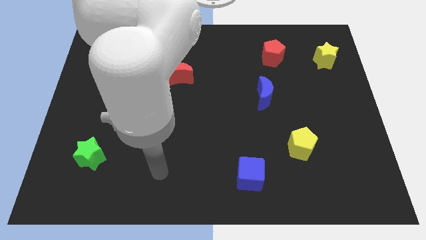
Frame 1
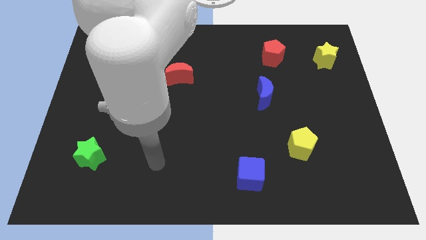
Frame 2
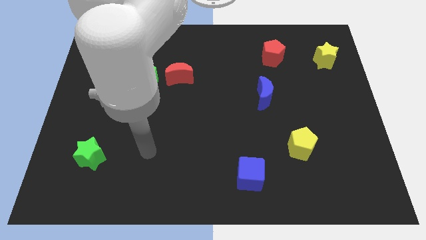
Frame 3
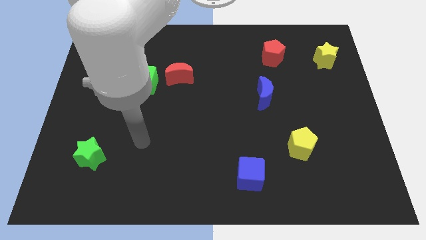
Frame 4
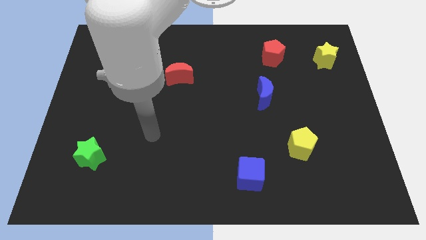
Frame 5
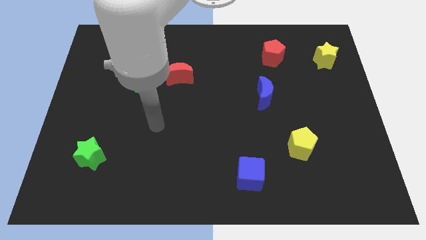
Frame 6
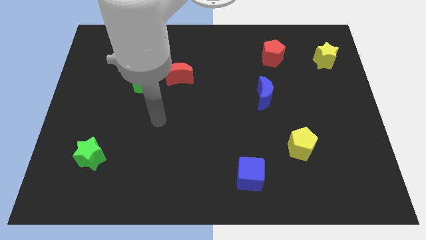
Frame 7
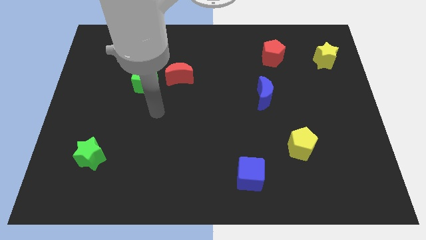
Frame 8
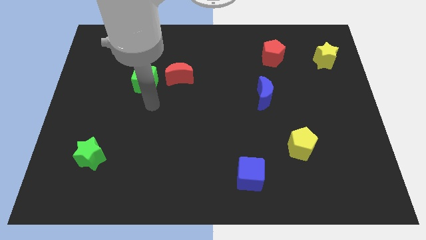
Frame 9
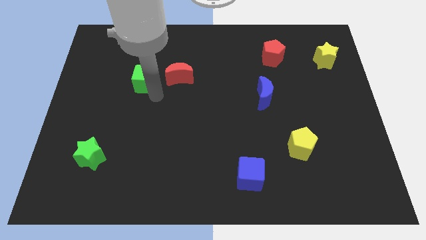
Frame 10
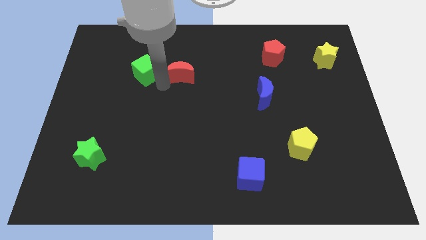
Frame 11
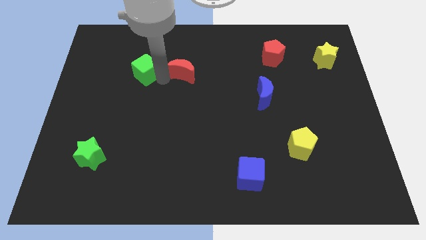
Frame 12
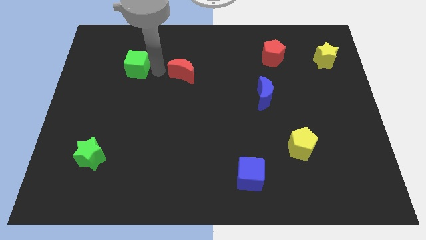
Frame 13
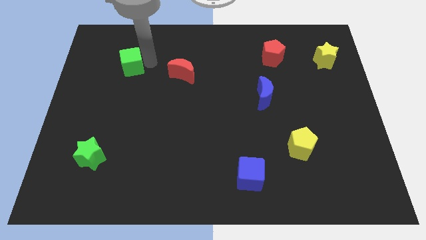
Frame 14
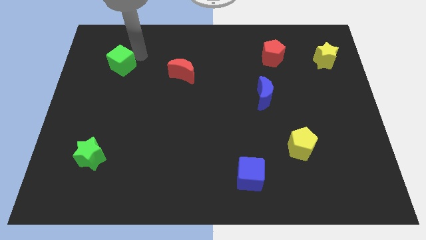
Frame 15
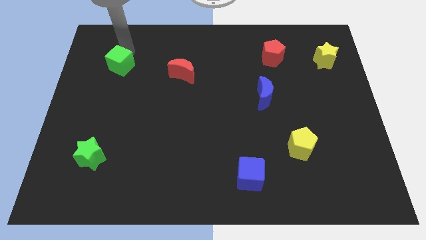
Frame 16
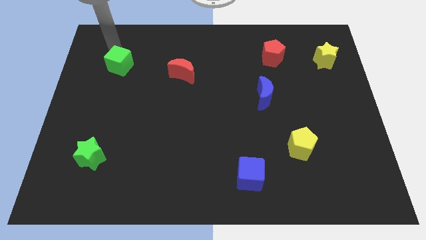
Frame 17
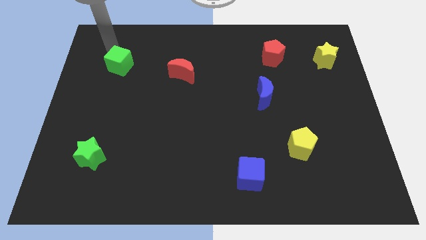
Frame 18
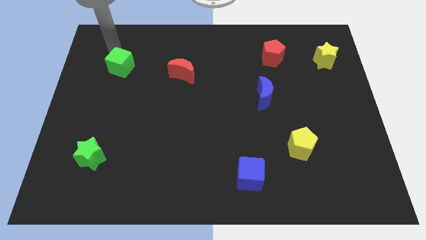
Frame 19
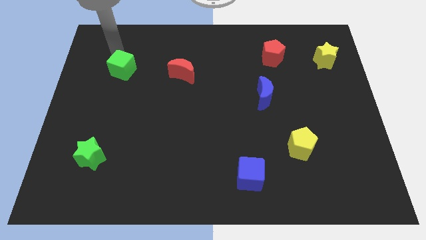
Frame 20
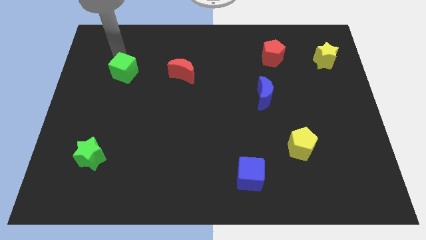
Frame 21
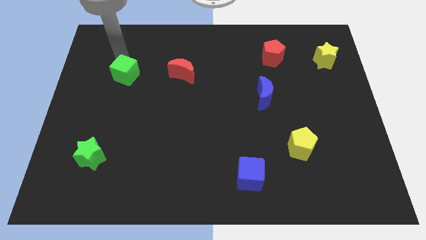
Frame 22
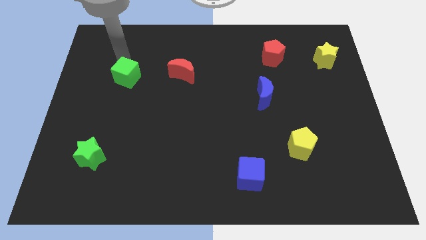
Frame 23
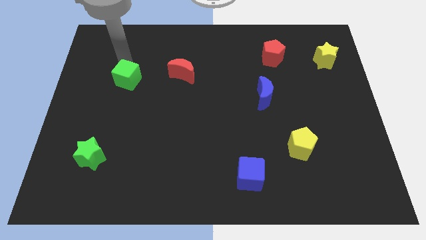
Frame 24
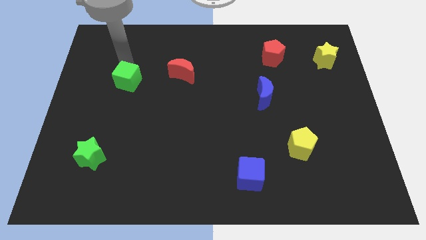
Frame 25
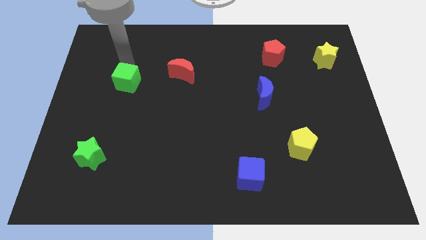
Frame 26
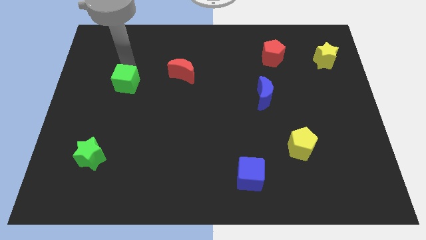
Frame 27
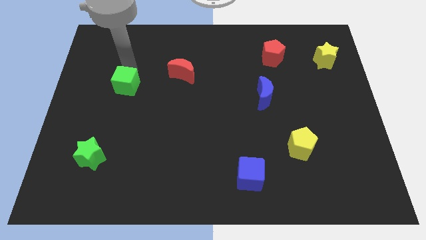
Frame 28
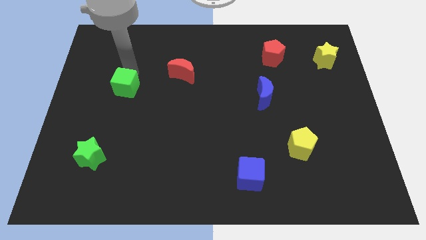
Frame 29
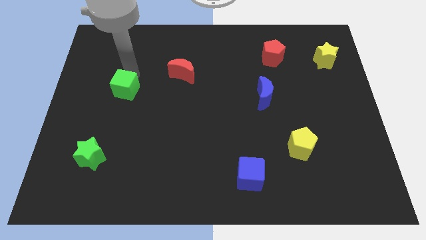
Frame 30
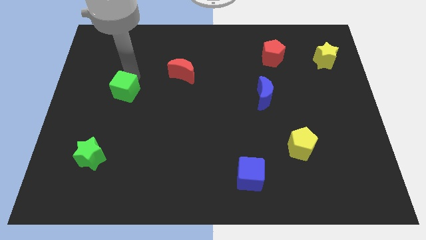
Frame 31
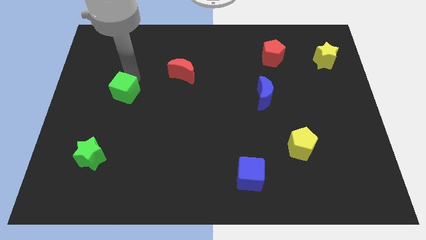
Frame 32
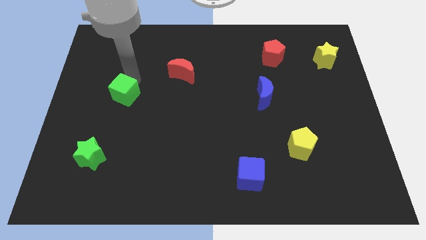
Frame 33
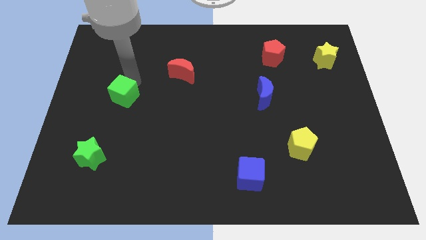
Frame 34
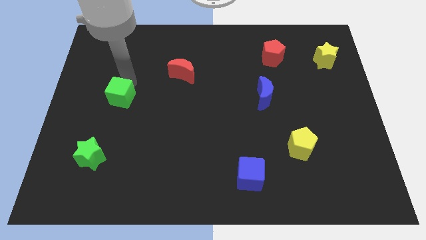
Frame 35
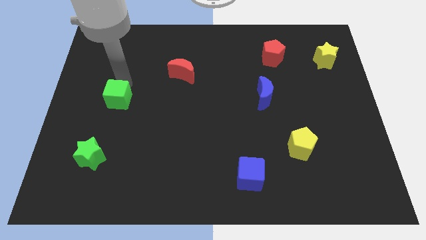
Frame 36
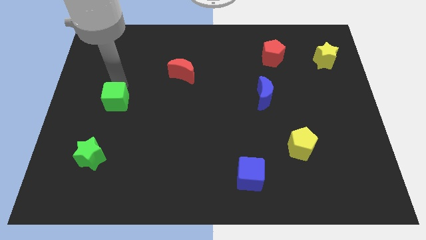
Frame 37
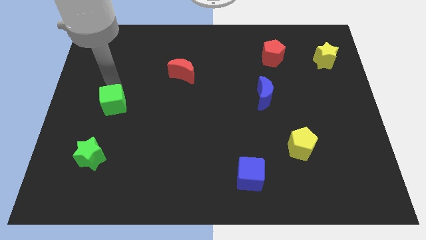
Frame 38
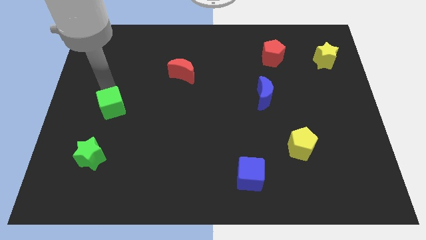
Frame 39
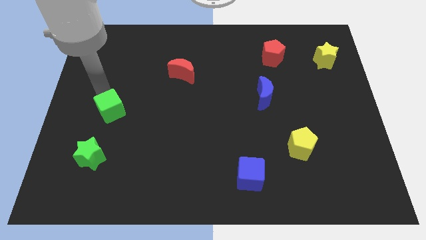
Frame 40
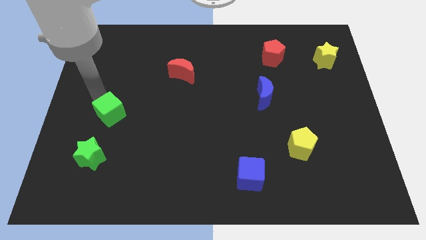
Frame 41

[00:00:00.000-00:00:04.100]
slide the green cube a little downwards

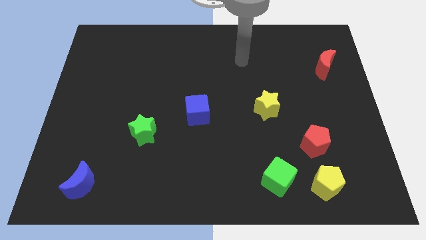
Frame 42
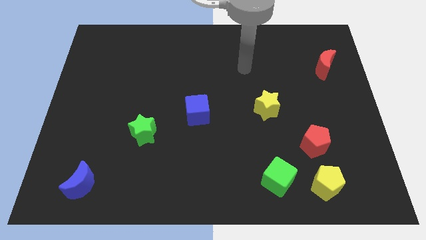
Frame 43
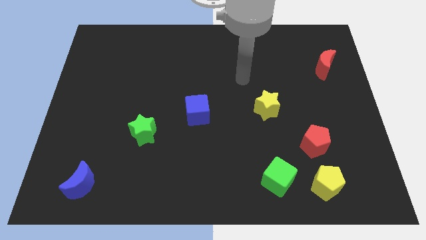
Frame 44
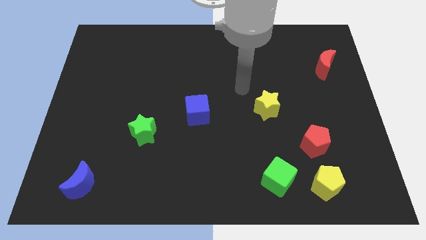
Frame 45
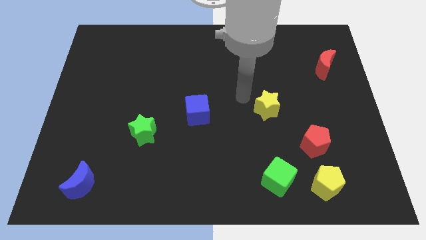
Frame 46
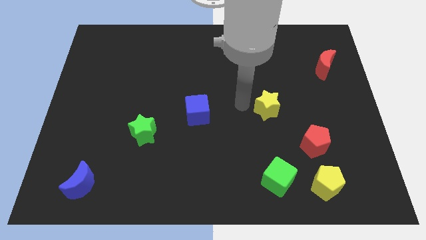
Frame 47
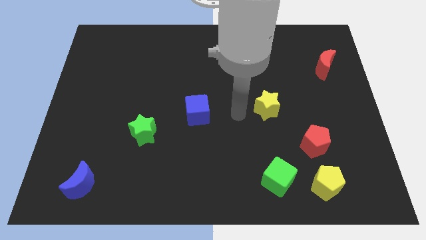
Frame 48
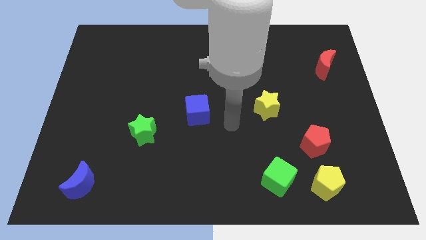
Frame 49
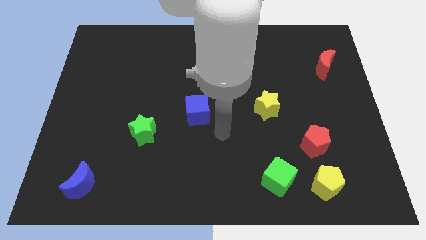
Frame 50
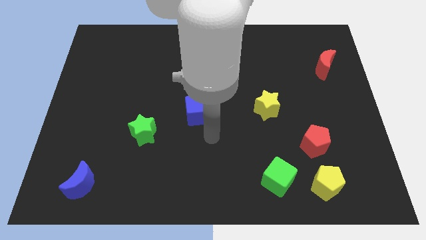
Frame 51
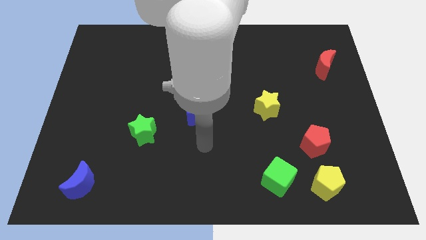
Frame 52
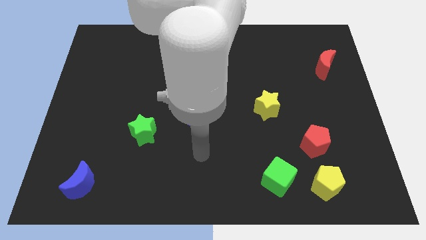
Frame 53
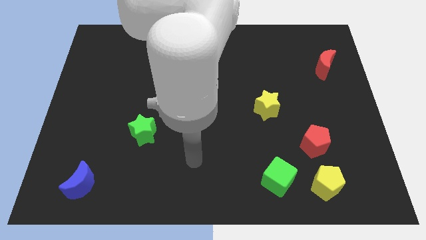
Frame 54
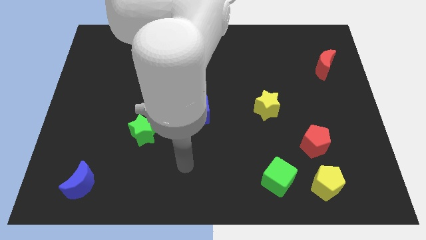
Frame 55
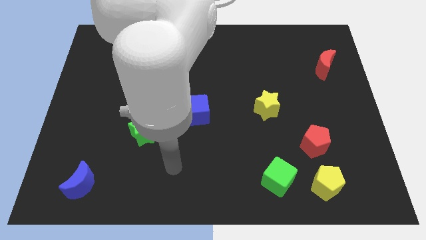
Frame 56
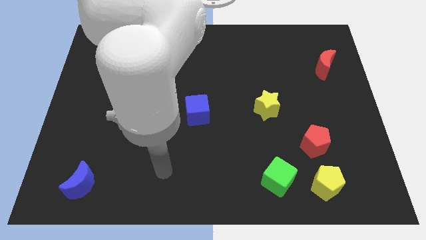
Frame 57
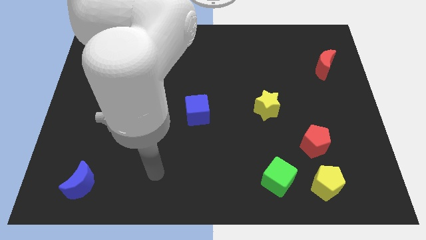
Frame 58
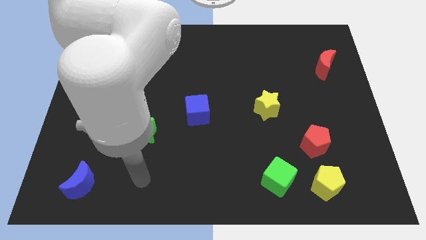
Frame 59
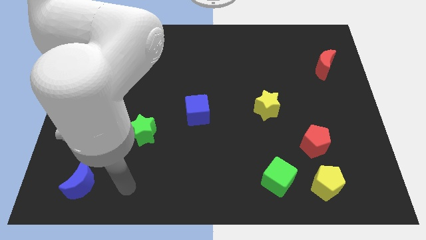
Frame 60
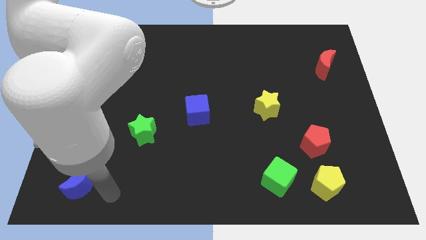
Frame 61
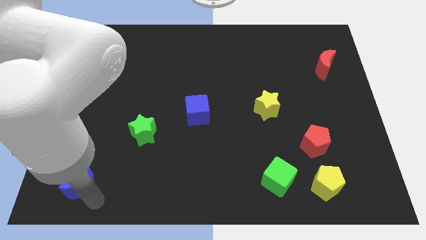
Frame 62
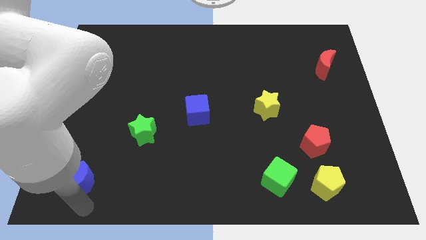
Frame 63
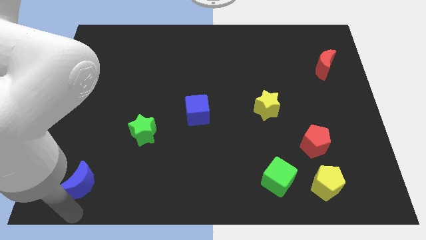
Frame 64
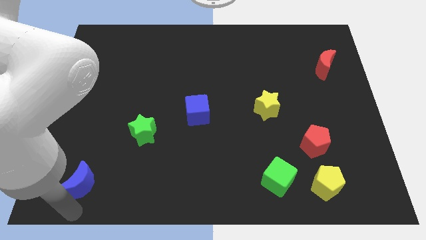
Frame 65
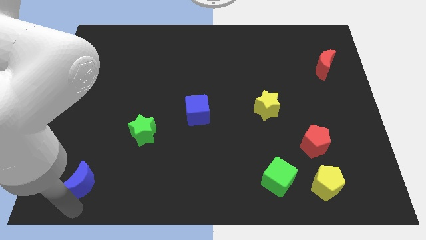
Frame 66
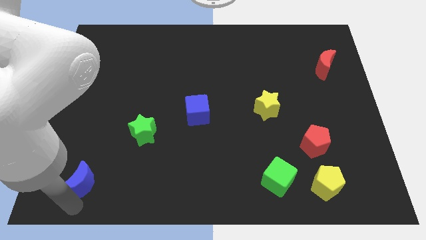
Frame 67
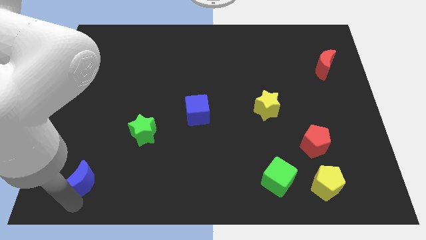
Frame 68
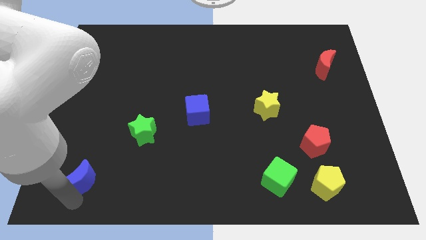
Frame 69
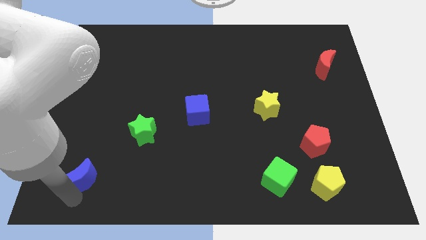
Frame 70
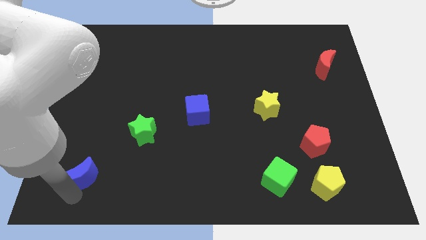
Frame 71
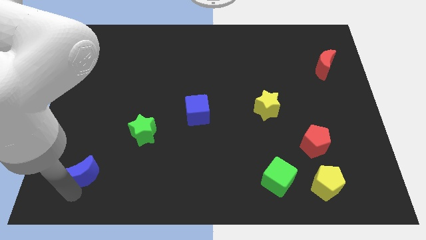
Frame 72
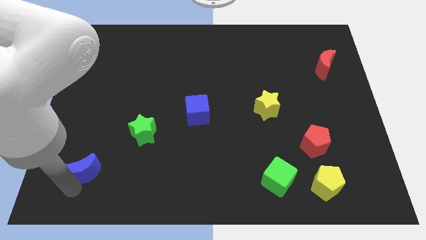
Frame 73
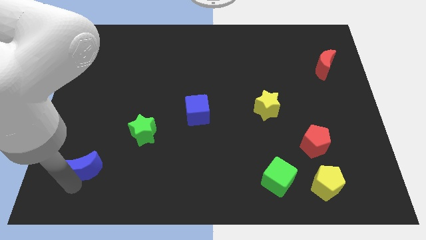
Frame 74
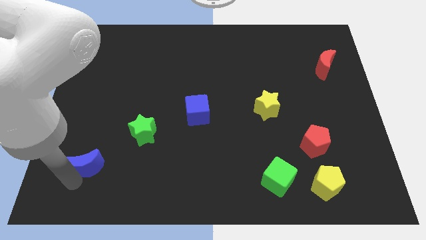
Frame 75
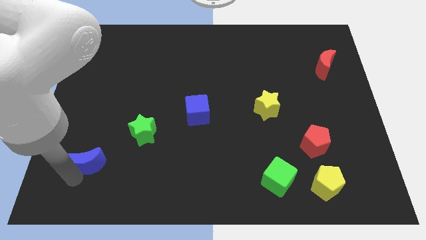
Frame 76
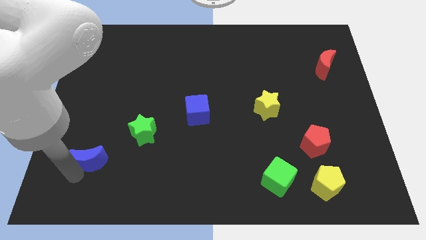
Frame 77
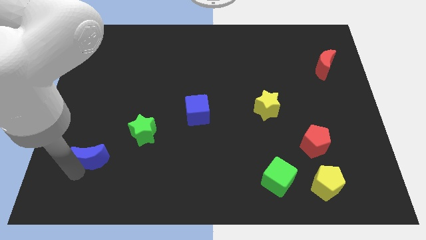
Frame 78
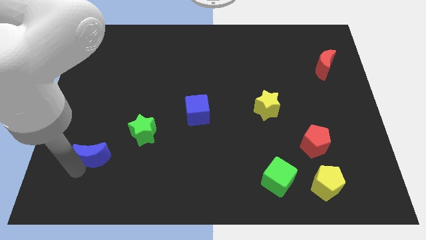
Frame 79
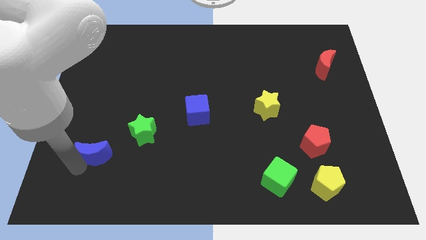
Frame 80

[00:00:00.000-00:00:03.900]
move the blue moon upwards a little
